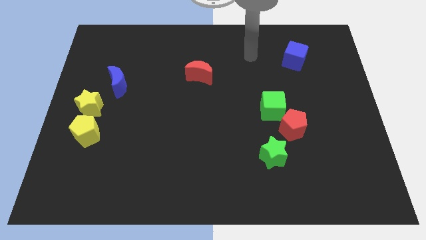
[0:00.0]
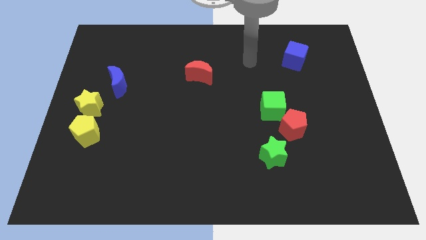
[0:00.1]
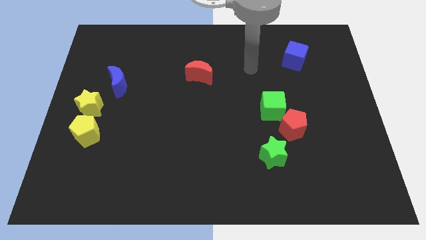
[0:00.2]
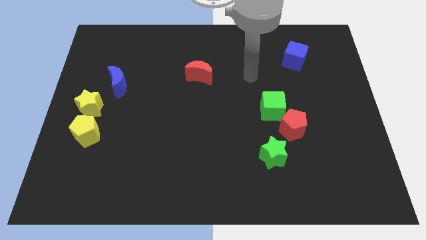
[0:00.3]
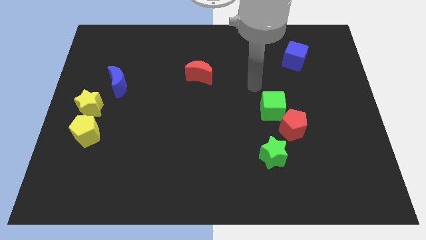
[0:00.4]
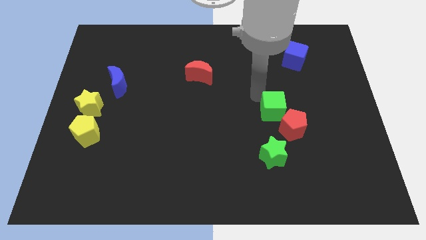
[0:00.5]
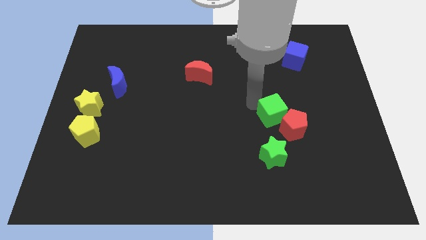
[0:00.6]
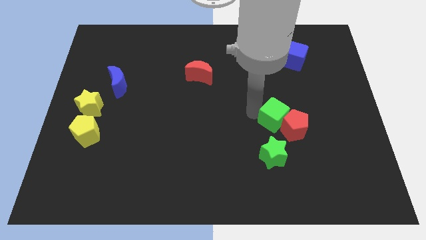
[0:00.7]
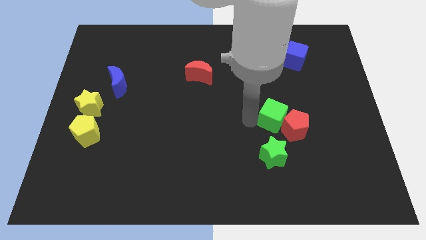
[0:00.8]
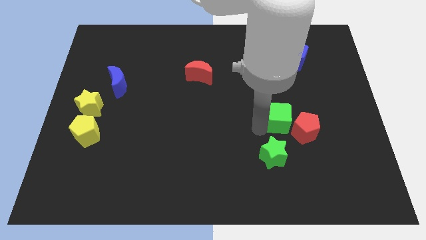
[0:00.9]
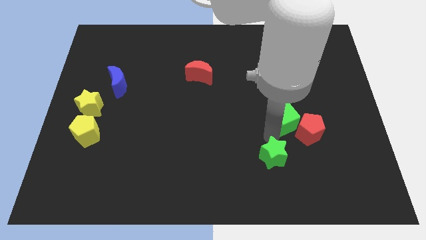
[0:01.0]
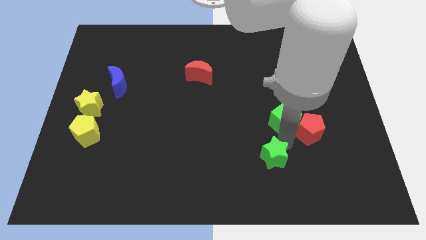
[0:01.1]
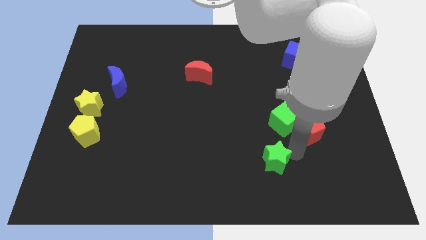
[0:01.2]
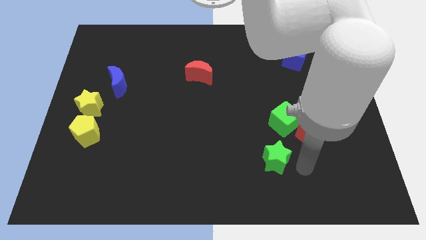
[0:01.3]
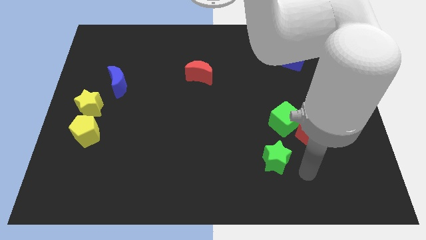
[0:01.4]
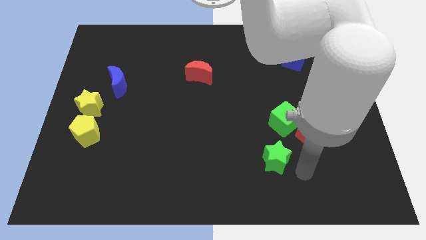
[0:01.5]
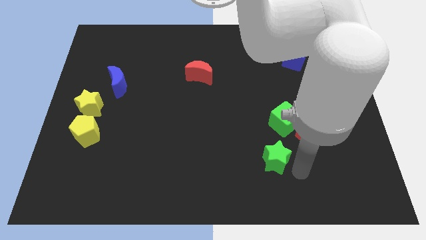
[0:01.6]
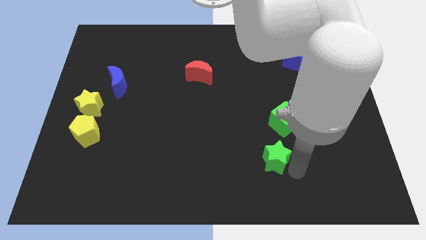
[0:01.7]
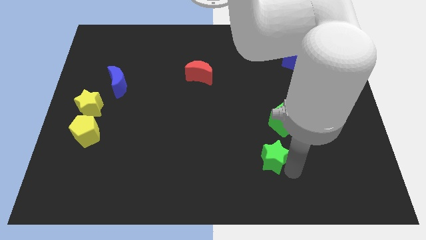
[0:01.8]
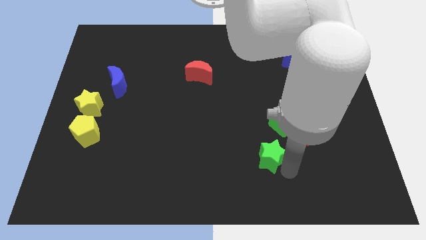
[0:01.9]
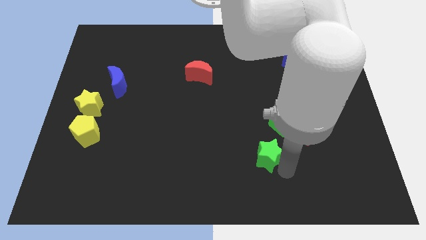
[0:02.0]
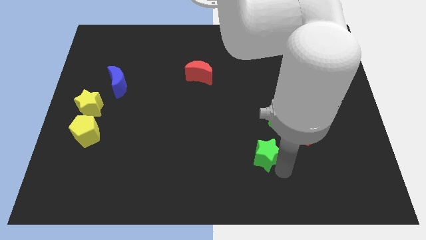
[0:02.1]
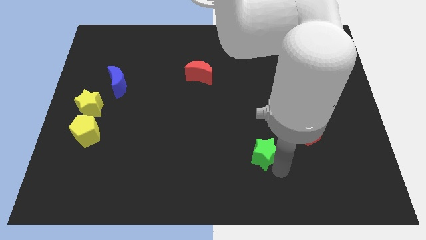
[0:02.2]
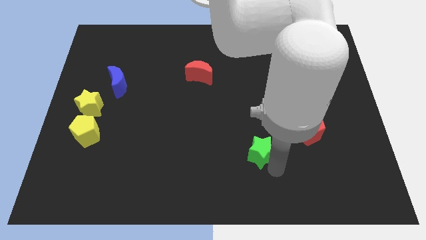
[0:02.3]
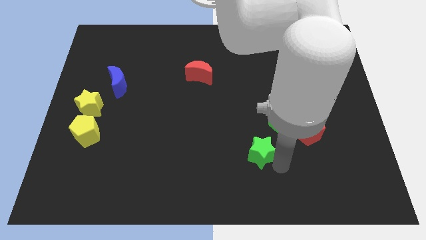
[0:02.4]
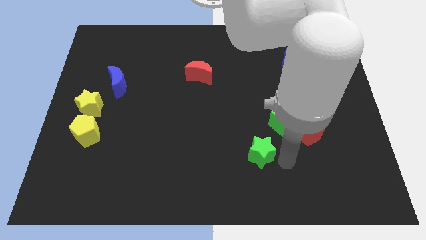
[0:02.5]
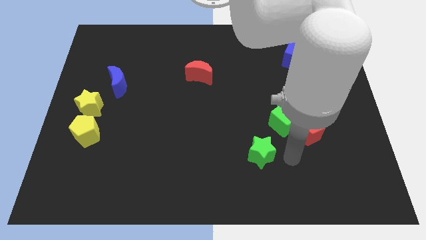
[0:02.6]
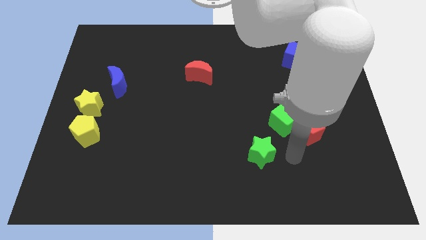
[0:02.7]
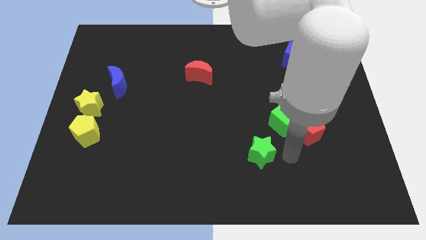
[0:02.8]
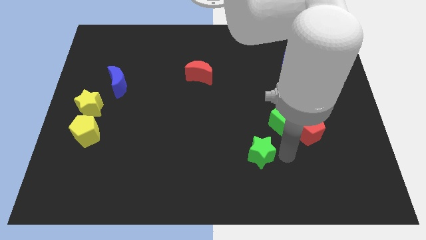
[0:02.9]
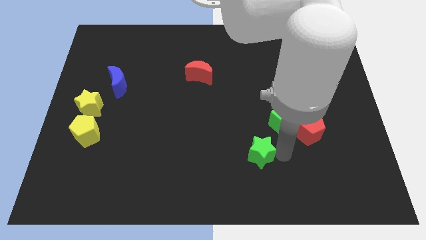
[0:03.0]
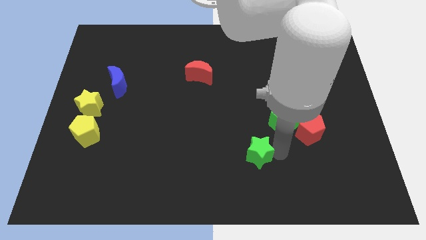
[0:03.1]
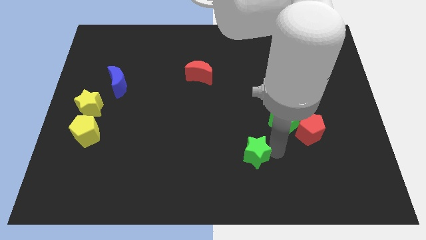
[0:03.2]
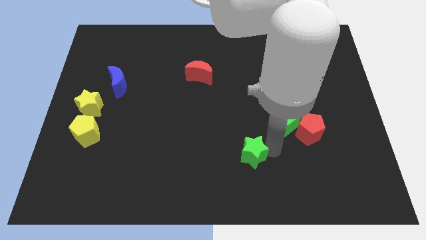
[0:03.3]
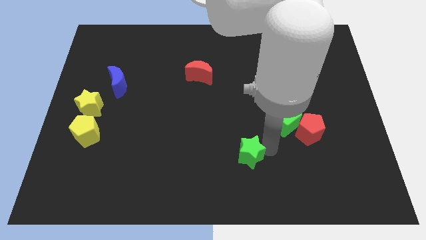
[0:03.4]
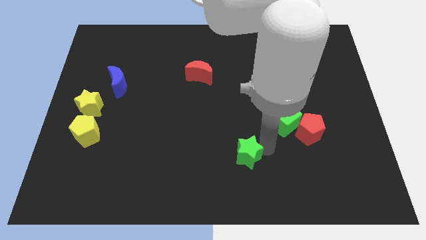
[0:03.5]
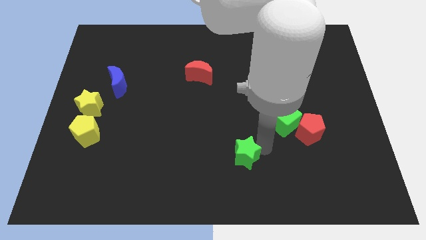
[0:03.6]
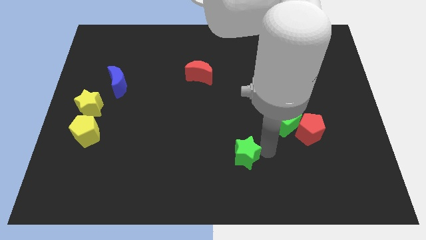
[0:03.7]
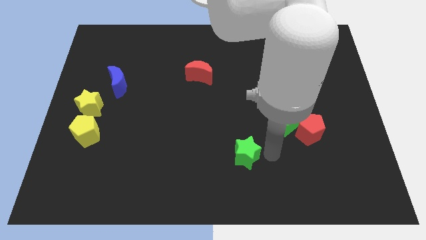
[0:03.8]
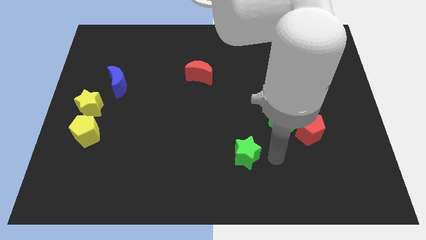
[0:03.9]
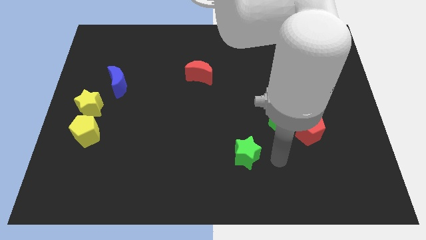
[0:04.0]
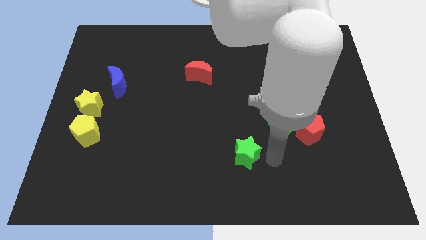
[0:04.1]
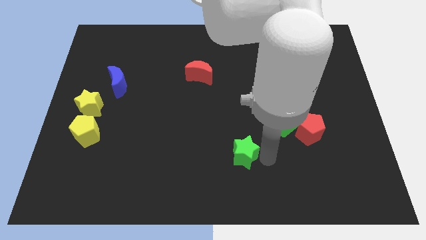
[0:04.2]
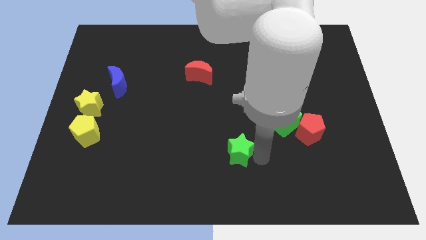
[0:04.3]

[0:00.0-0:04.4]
slide the green star slightly left

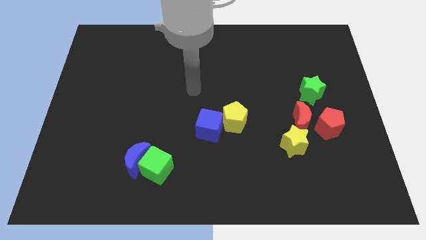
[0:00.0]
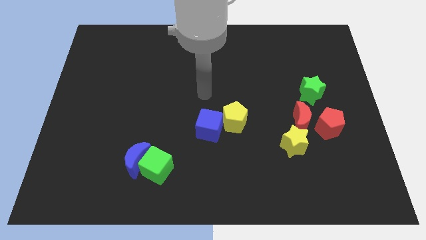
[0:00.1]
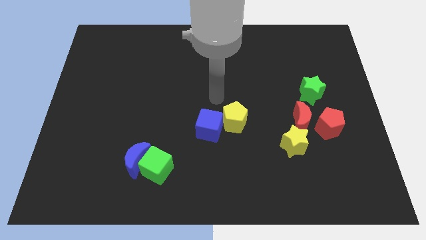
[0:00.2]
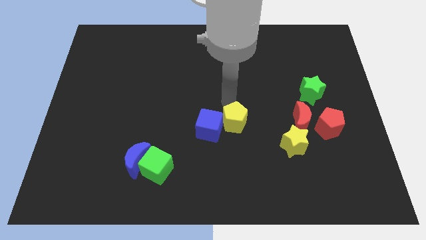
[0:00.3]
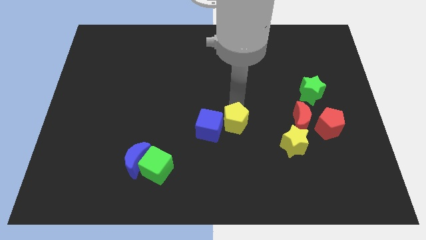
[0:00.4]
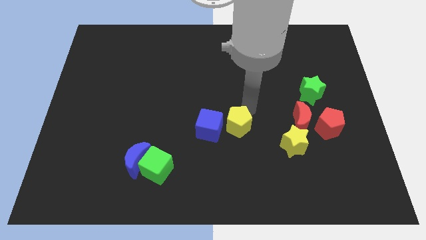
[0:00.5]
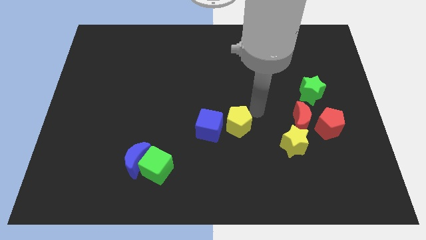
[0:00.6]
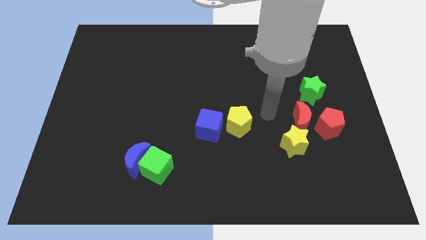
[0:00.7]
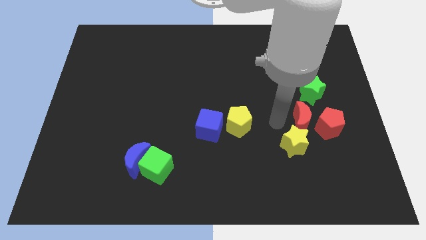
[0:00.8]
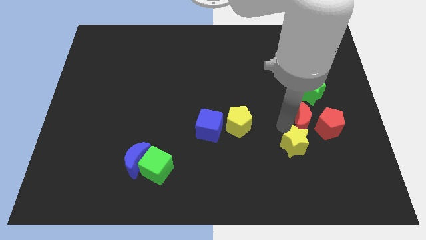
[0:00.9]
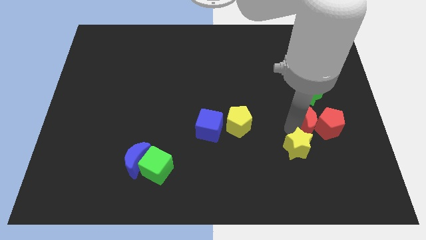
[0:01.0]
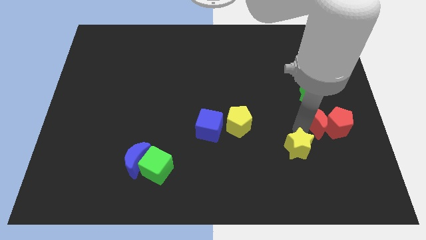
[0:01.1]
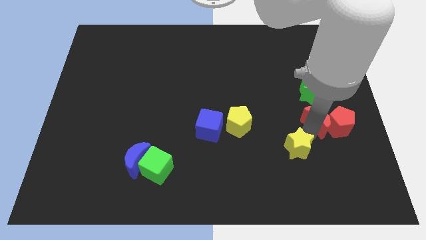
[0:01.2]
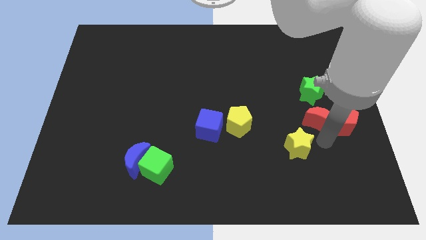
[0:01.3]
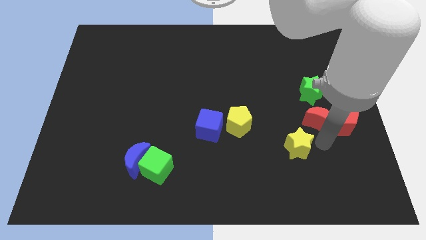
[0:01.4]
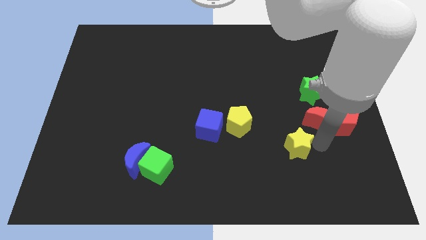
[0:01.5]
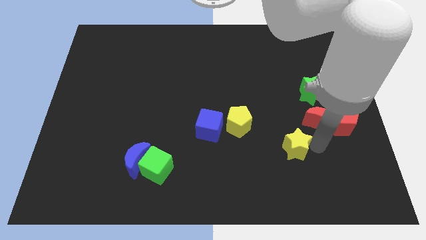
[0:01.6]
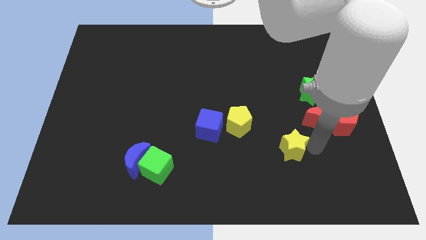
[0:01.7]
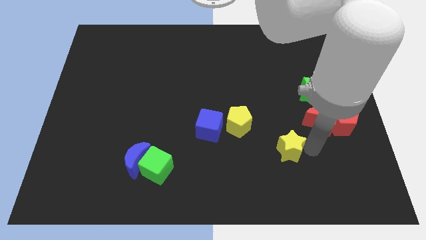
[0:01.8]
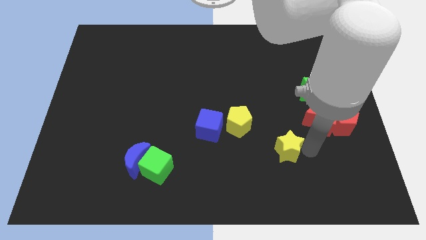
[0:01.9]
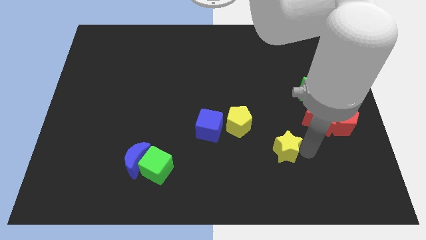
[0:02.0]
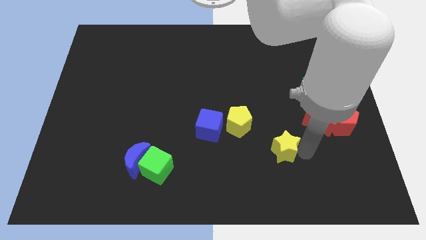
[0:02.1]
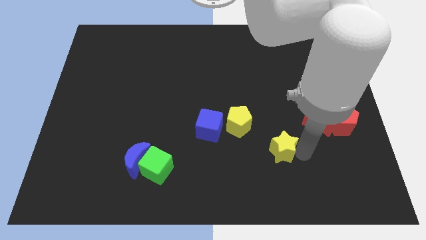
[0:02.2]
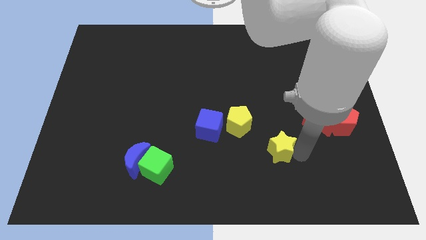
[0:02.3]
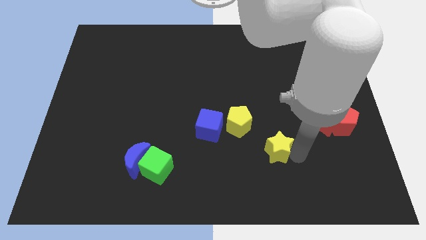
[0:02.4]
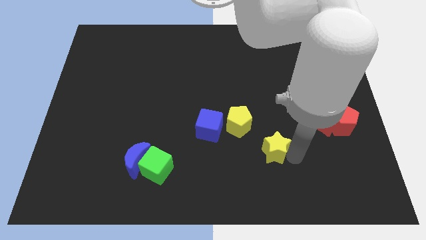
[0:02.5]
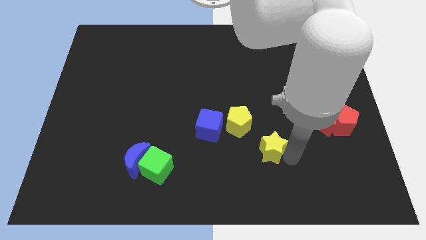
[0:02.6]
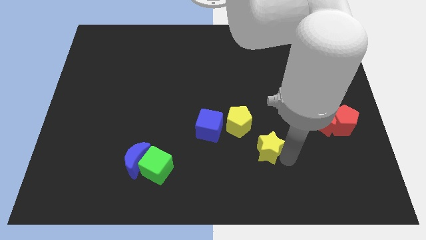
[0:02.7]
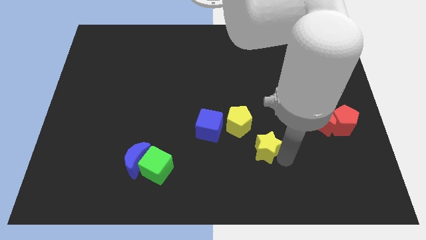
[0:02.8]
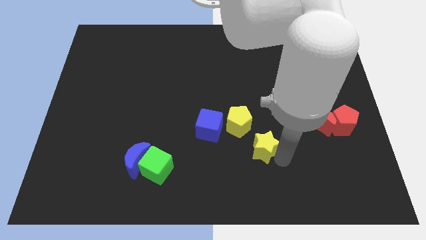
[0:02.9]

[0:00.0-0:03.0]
push the yellow star to the left somewhat

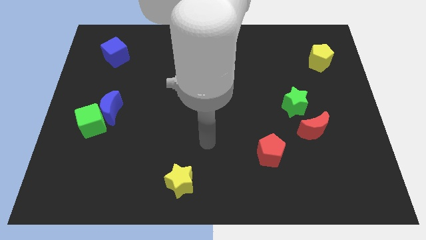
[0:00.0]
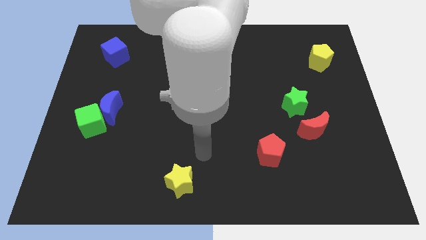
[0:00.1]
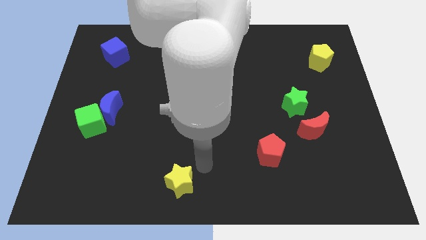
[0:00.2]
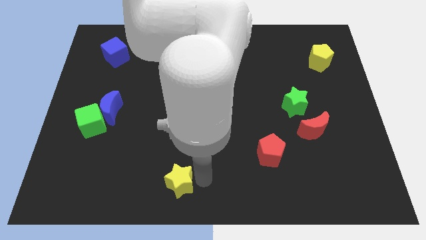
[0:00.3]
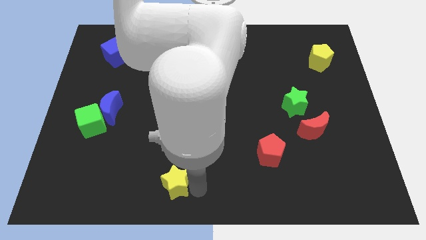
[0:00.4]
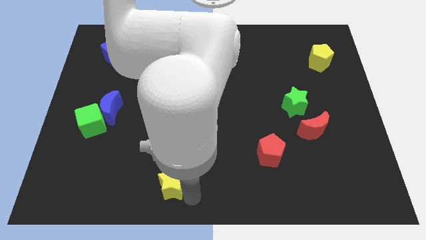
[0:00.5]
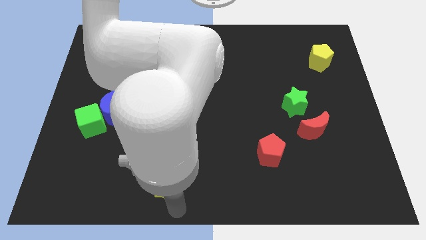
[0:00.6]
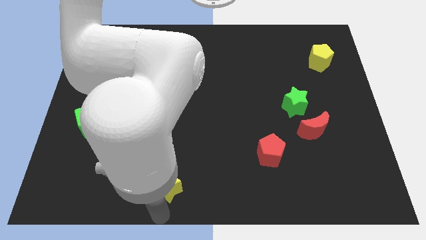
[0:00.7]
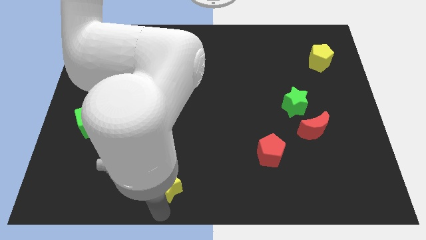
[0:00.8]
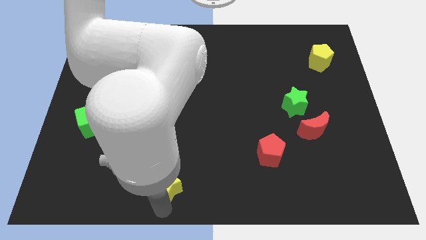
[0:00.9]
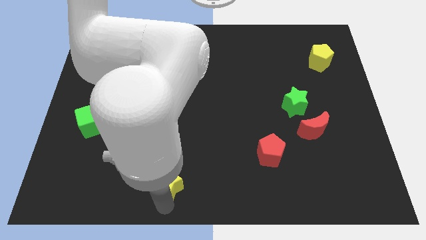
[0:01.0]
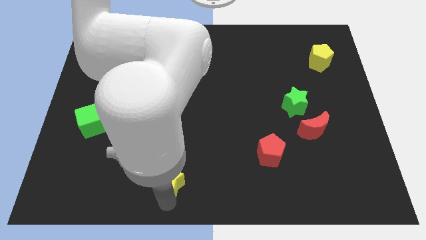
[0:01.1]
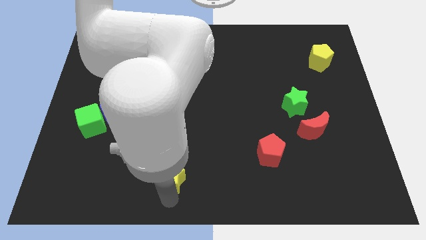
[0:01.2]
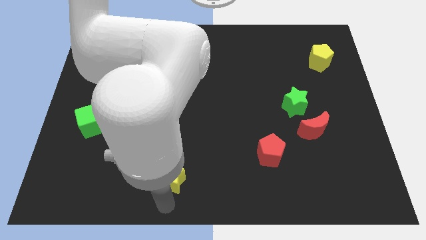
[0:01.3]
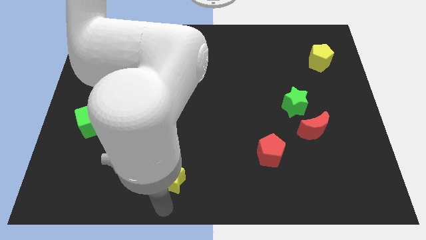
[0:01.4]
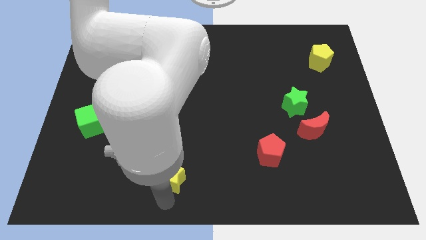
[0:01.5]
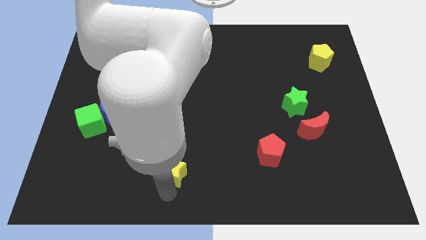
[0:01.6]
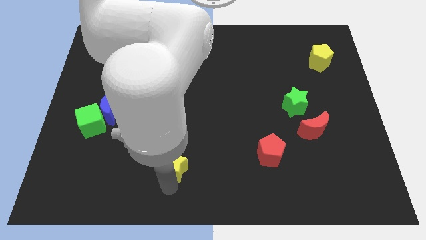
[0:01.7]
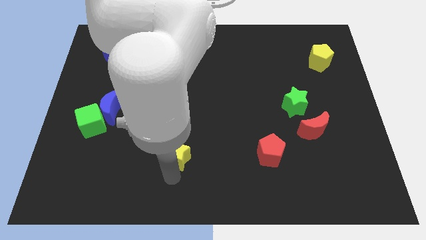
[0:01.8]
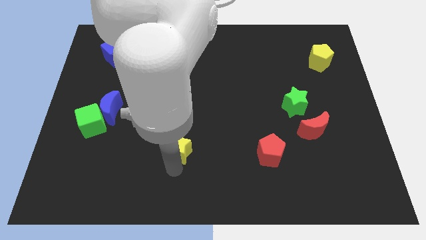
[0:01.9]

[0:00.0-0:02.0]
push the yellow star up a bit
